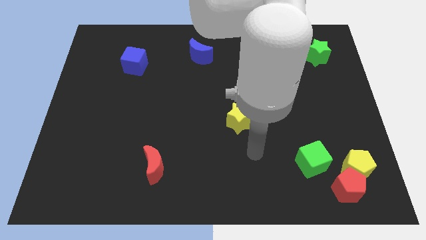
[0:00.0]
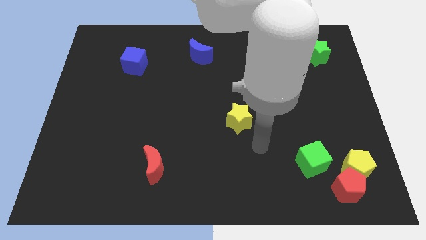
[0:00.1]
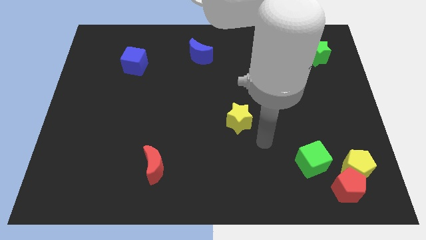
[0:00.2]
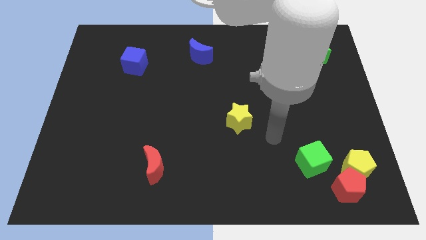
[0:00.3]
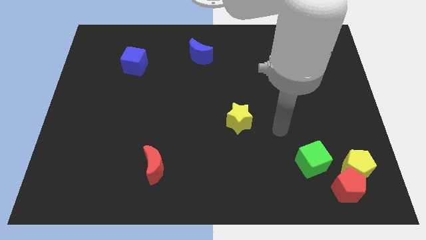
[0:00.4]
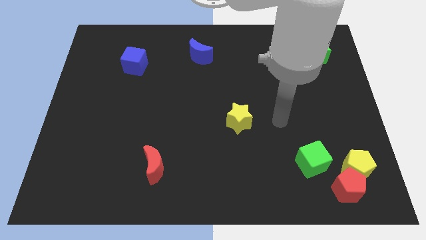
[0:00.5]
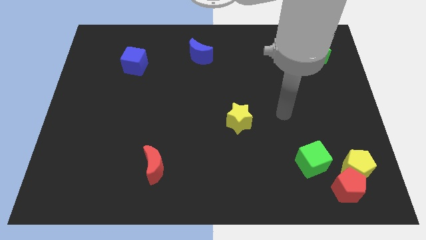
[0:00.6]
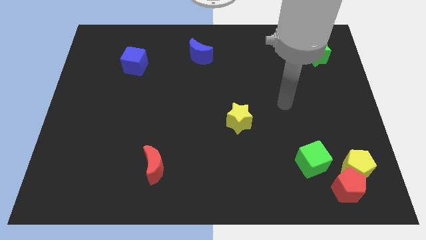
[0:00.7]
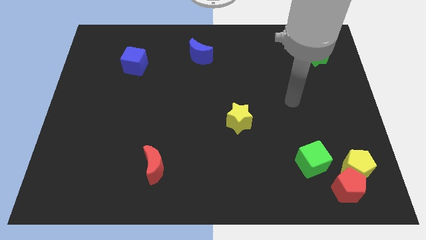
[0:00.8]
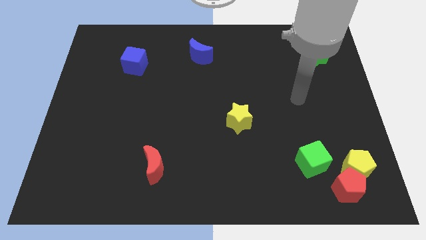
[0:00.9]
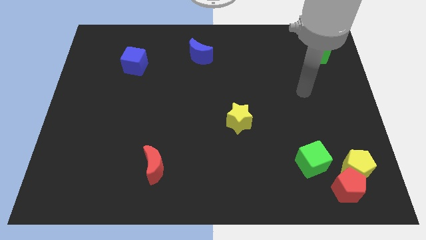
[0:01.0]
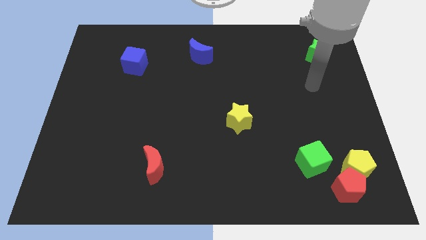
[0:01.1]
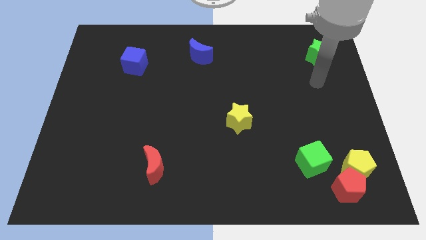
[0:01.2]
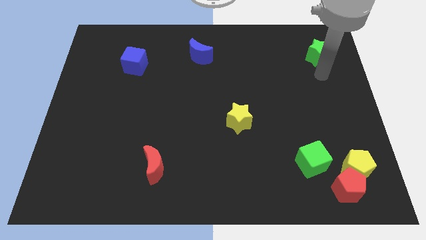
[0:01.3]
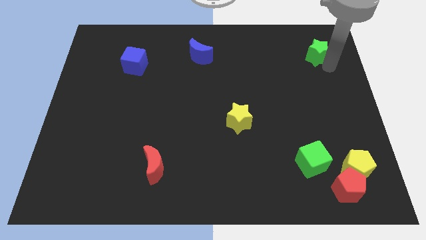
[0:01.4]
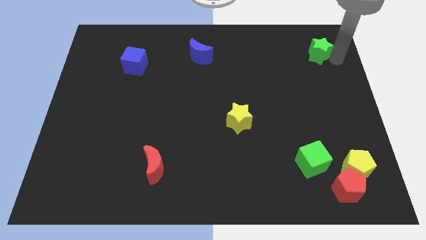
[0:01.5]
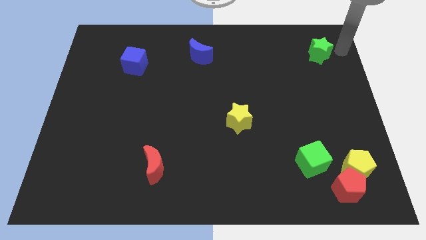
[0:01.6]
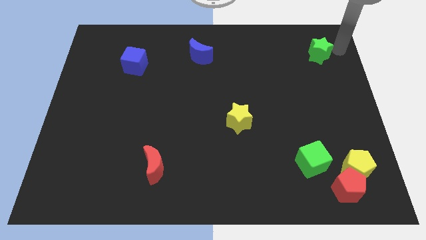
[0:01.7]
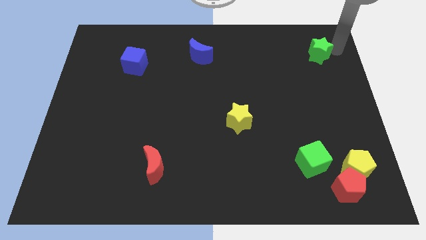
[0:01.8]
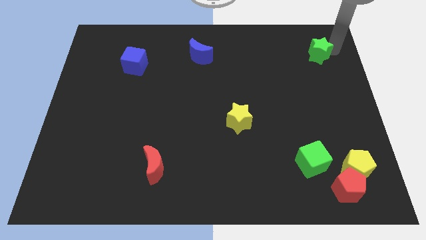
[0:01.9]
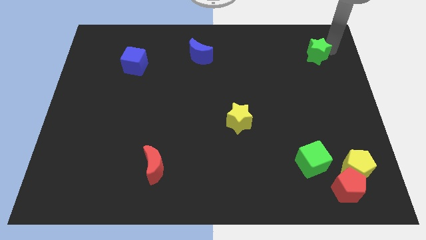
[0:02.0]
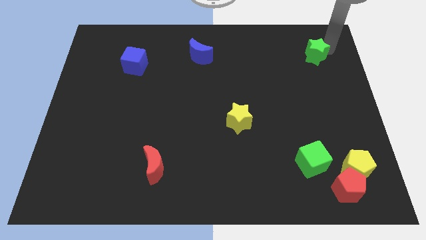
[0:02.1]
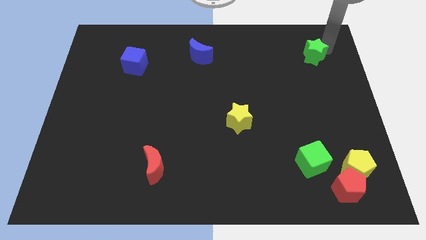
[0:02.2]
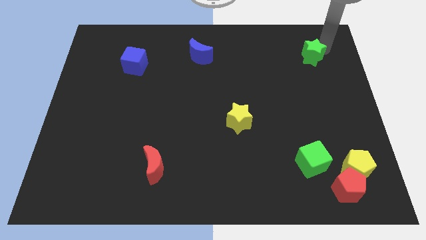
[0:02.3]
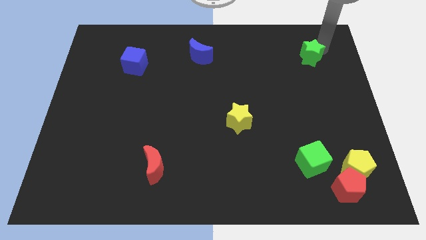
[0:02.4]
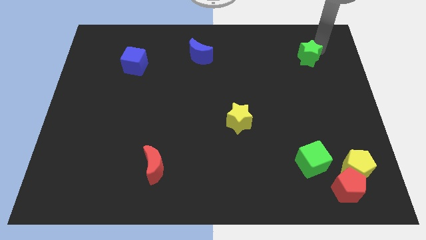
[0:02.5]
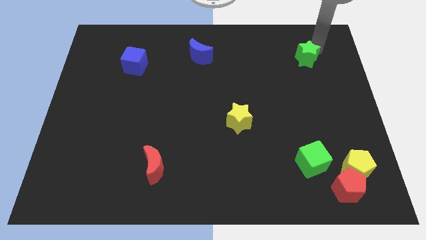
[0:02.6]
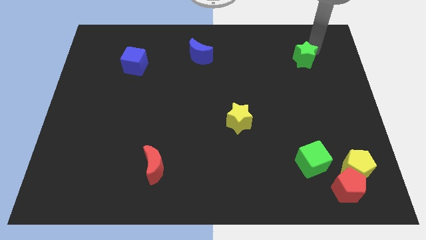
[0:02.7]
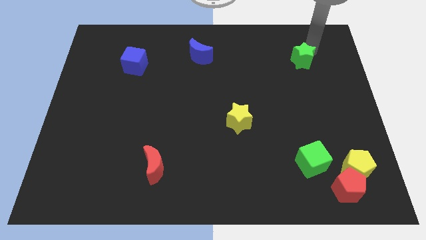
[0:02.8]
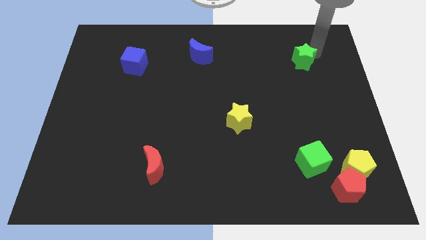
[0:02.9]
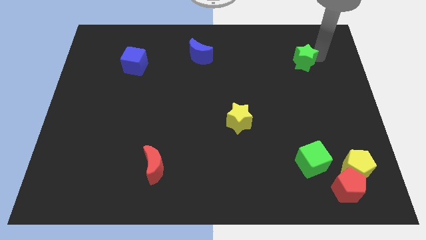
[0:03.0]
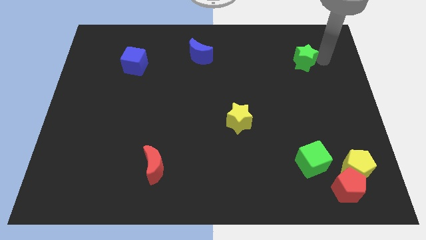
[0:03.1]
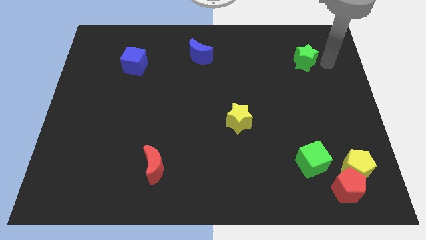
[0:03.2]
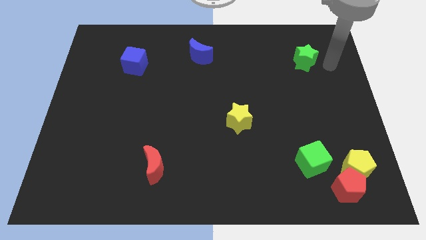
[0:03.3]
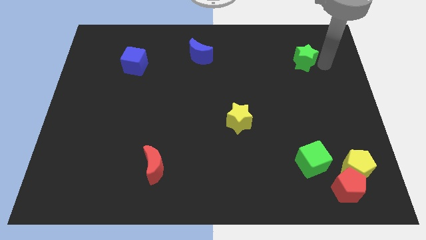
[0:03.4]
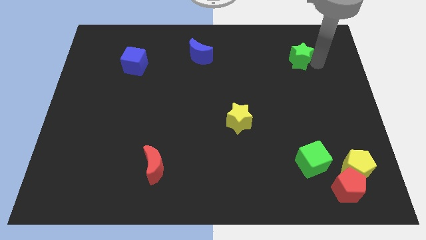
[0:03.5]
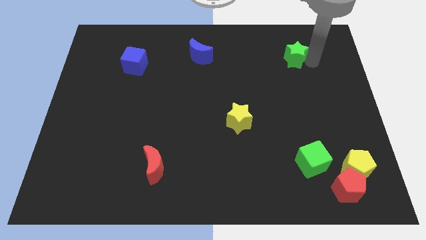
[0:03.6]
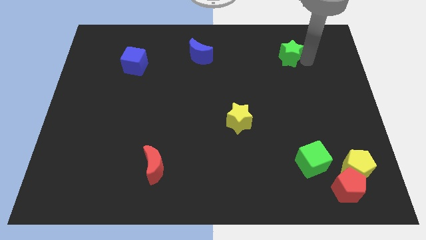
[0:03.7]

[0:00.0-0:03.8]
slightly slide the green star left

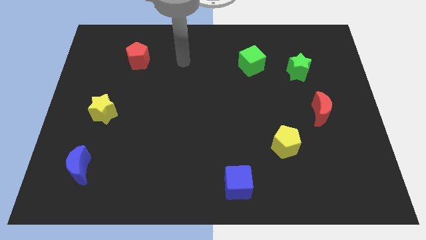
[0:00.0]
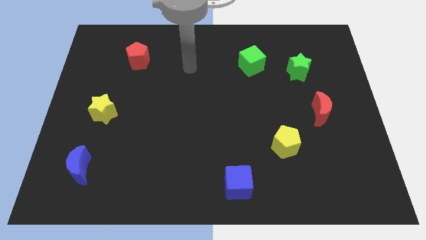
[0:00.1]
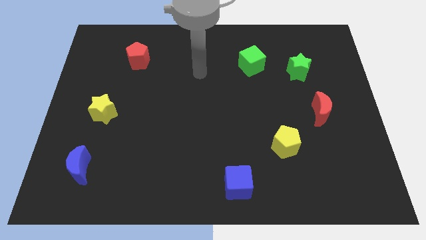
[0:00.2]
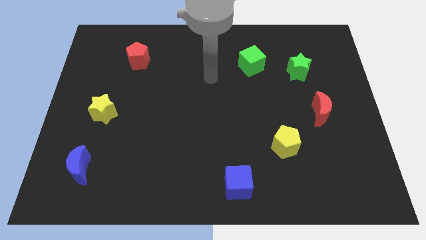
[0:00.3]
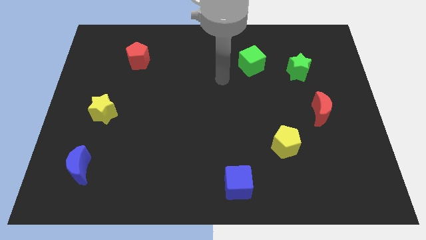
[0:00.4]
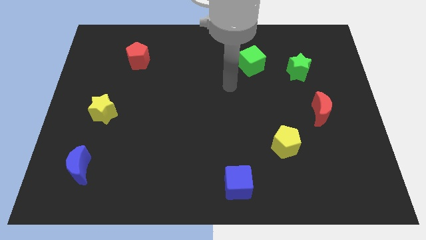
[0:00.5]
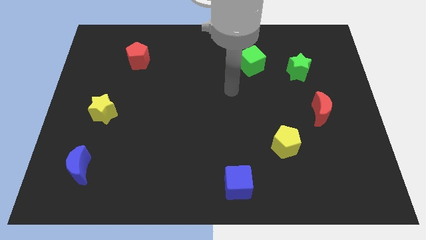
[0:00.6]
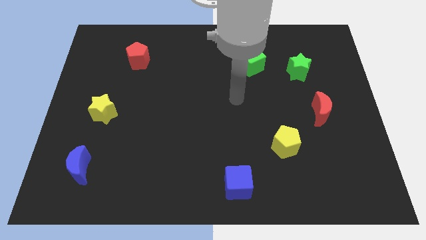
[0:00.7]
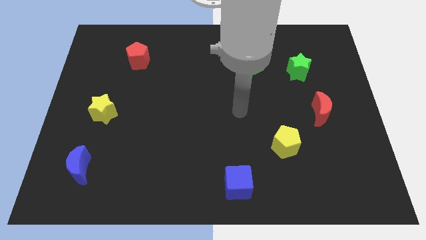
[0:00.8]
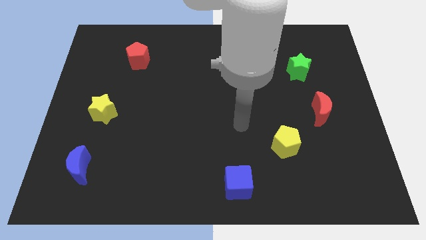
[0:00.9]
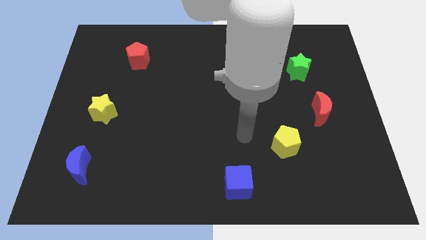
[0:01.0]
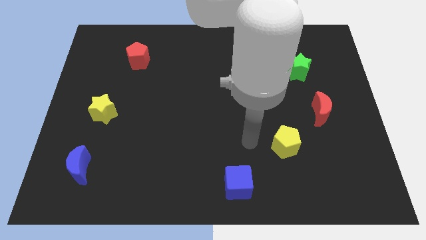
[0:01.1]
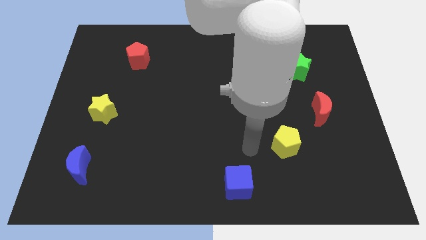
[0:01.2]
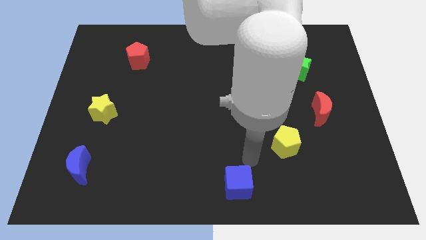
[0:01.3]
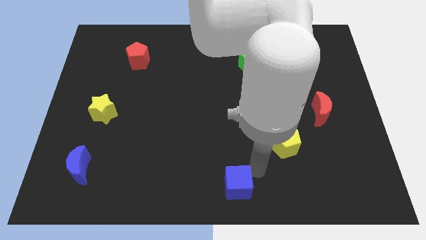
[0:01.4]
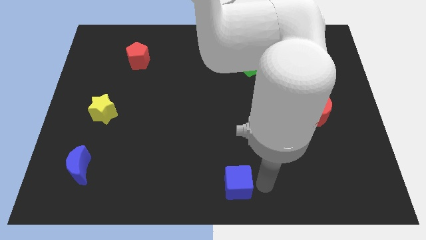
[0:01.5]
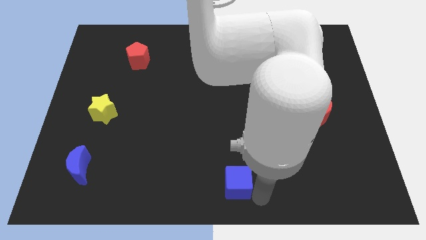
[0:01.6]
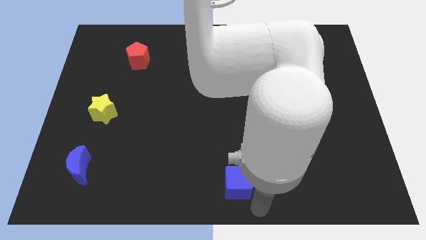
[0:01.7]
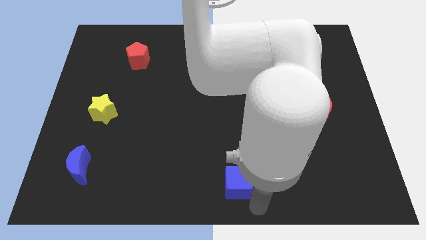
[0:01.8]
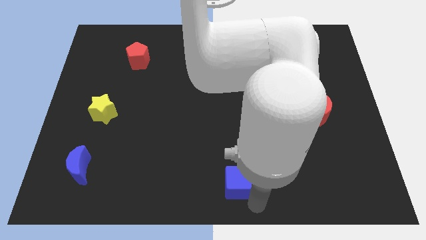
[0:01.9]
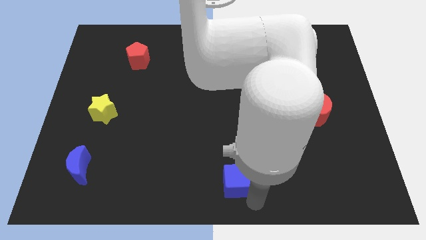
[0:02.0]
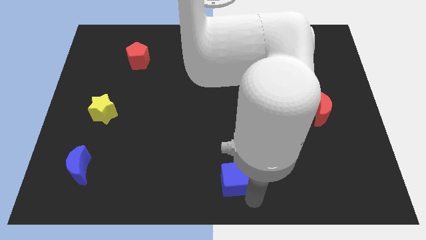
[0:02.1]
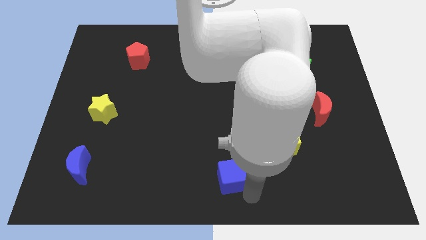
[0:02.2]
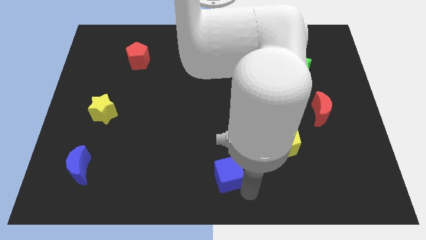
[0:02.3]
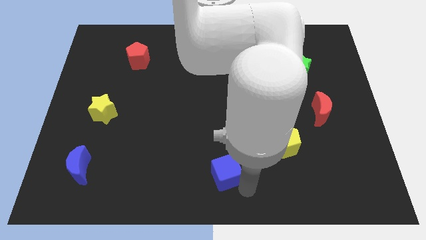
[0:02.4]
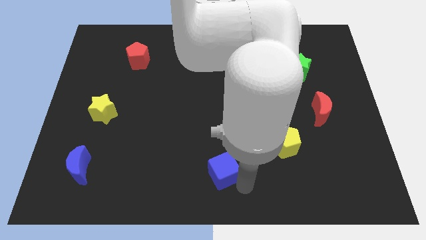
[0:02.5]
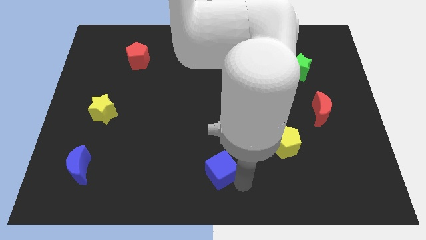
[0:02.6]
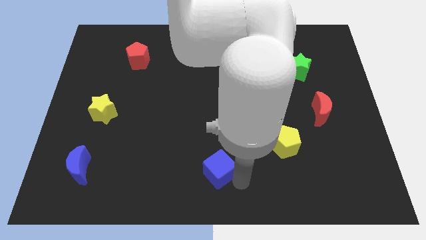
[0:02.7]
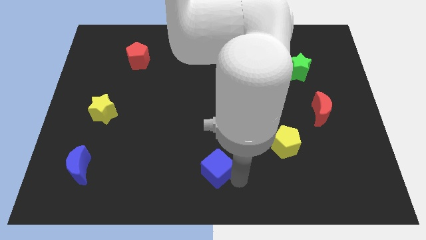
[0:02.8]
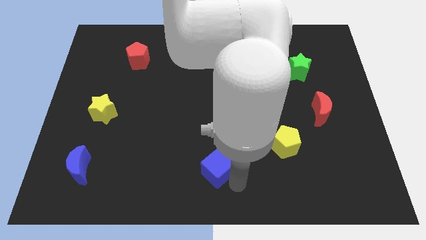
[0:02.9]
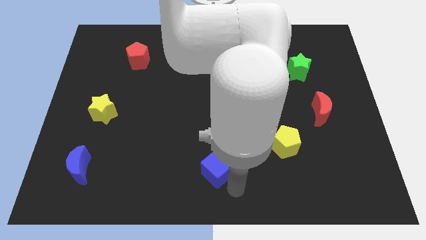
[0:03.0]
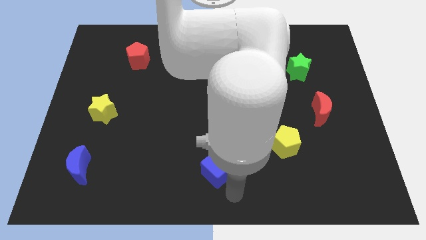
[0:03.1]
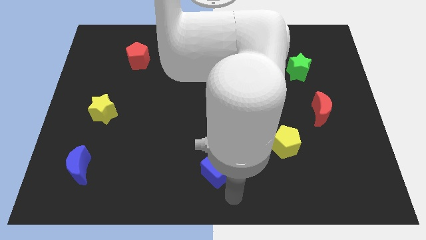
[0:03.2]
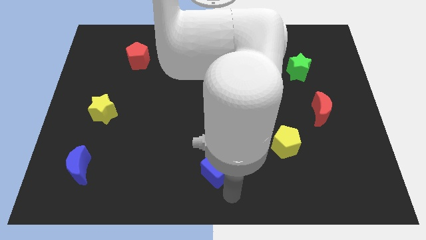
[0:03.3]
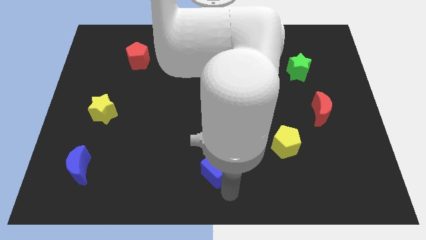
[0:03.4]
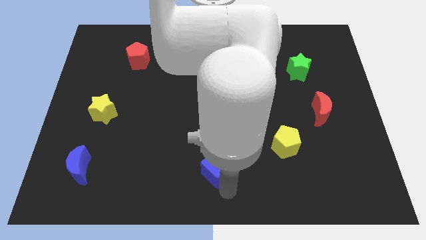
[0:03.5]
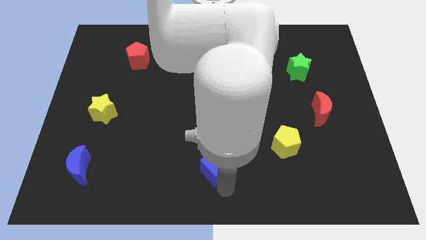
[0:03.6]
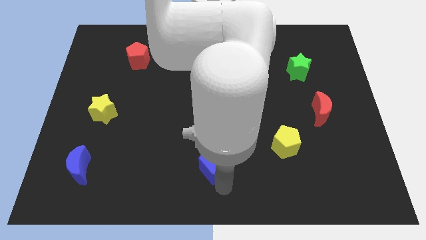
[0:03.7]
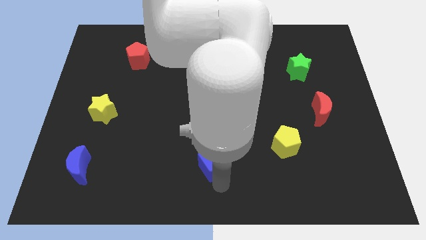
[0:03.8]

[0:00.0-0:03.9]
slightly push the blue cube upwards and then left

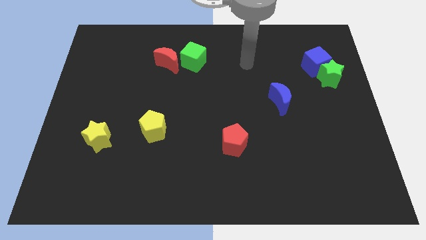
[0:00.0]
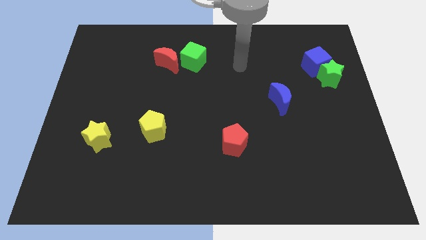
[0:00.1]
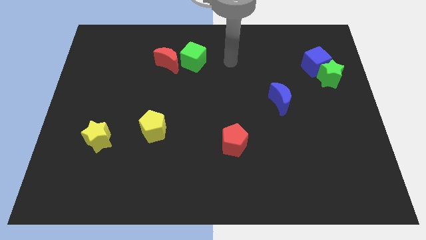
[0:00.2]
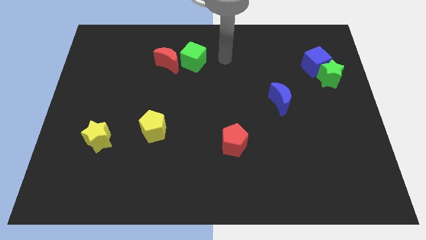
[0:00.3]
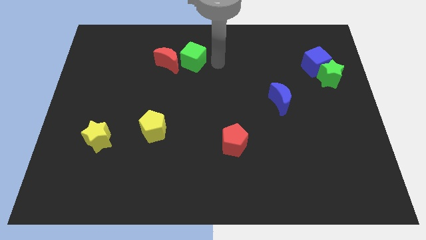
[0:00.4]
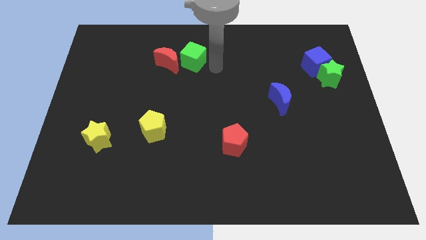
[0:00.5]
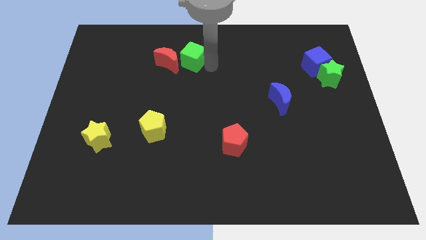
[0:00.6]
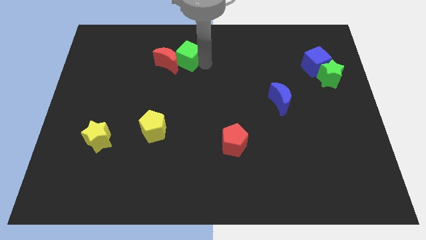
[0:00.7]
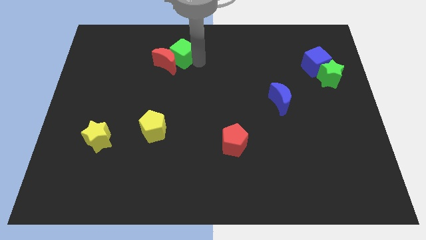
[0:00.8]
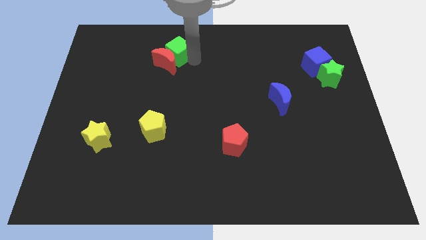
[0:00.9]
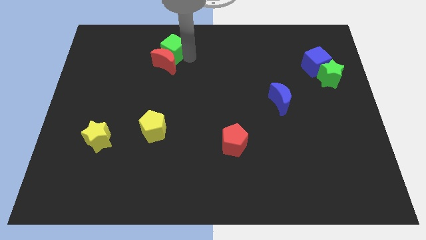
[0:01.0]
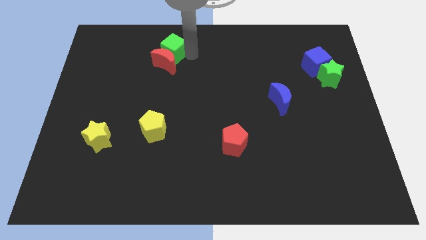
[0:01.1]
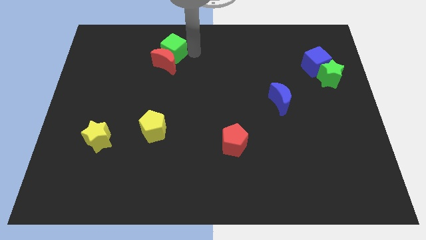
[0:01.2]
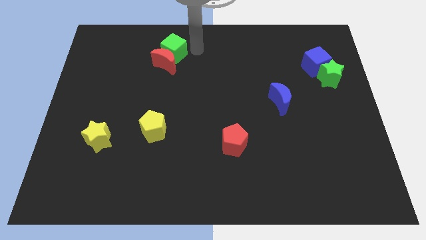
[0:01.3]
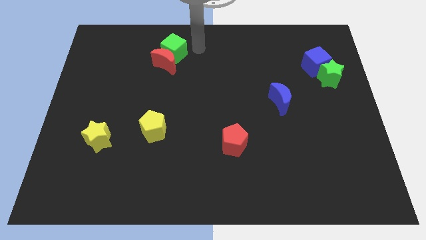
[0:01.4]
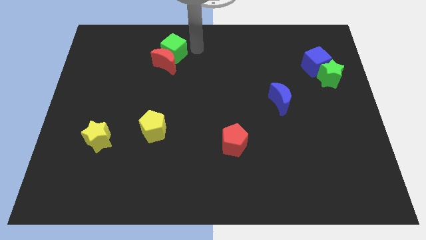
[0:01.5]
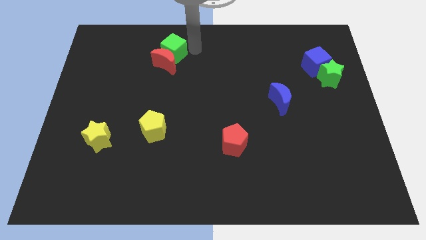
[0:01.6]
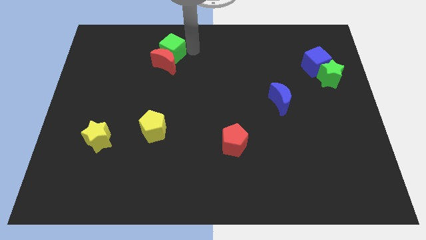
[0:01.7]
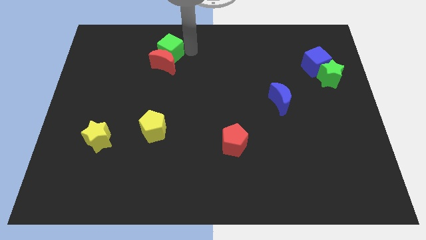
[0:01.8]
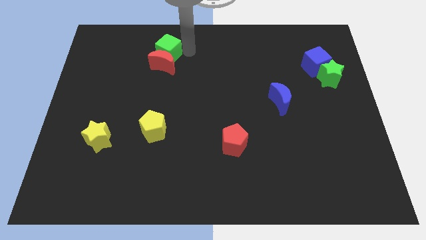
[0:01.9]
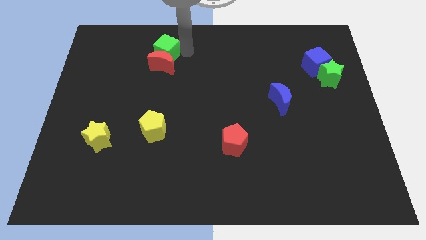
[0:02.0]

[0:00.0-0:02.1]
slightly slide the green cube to the left
